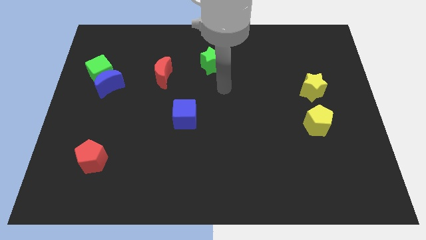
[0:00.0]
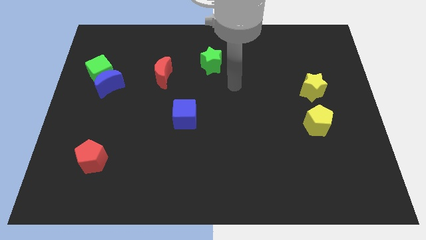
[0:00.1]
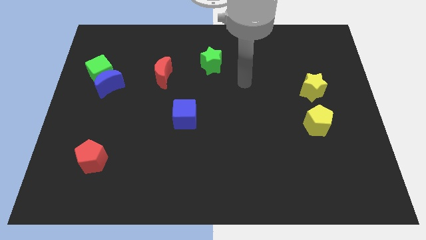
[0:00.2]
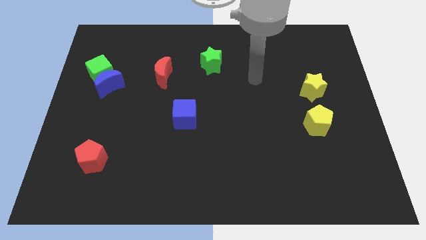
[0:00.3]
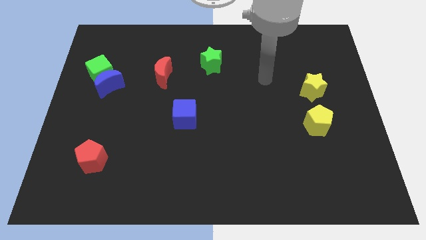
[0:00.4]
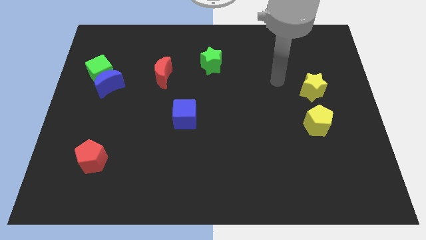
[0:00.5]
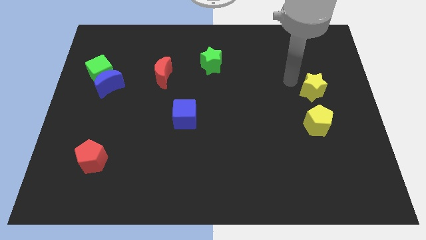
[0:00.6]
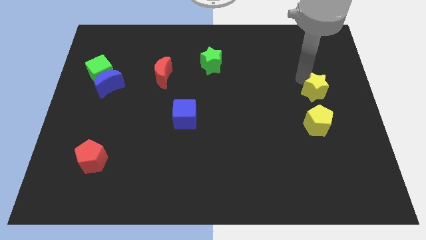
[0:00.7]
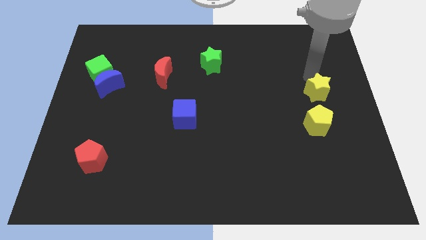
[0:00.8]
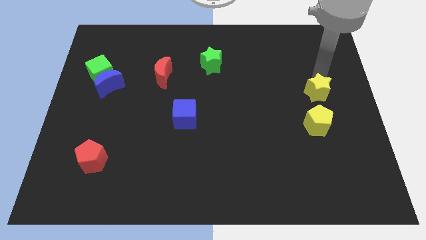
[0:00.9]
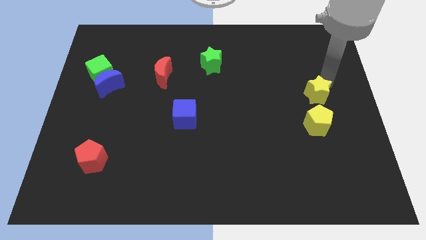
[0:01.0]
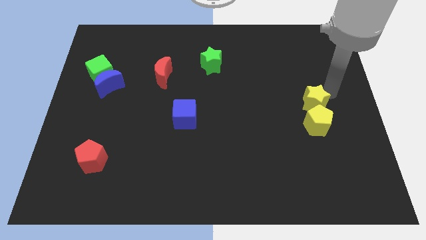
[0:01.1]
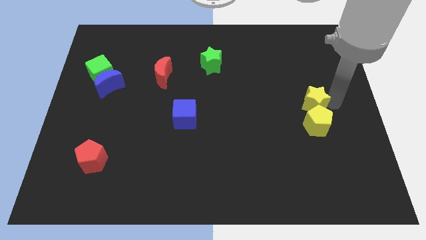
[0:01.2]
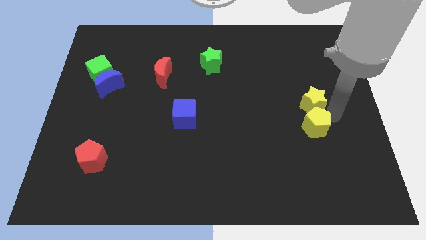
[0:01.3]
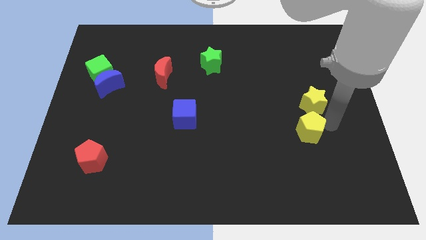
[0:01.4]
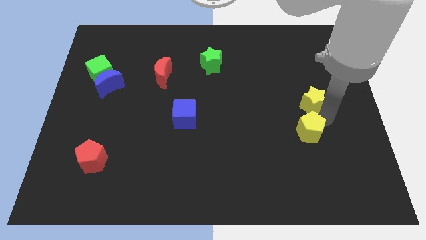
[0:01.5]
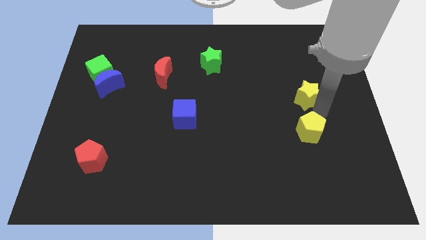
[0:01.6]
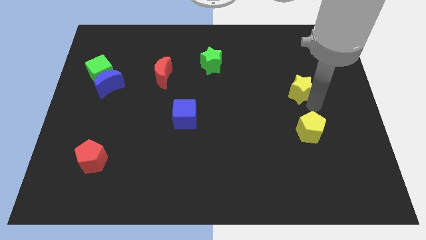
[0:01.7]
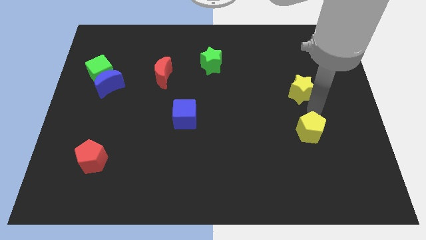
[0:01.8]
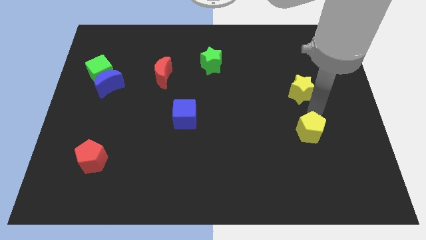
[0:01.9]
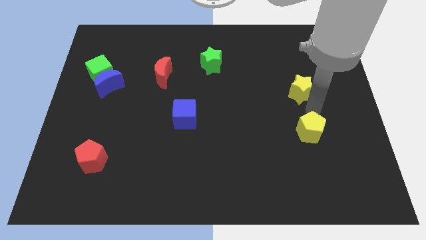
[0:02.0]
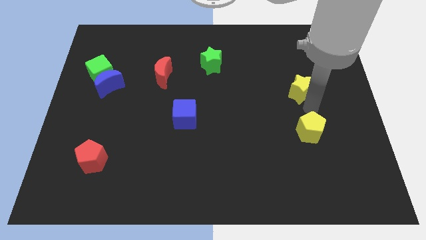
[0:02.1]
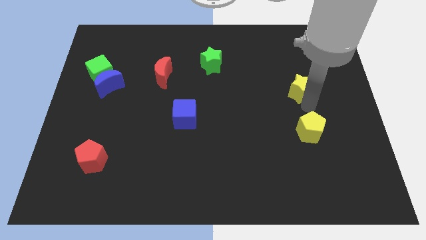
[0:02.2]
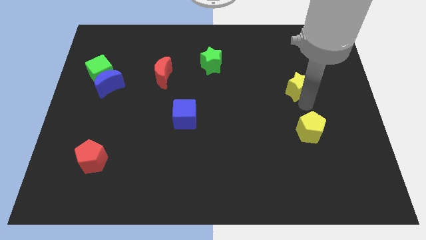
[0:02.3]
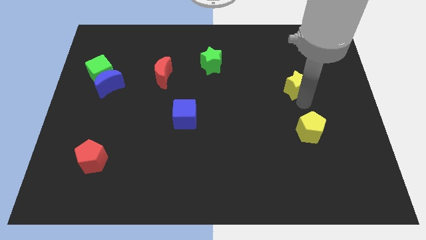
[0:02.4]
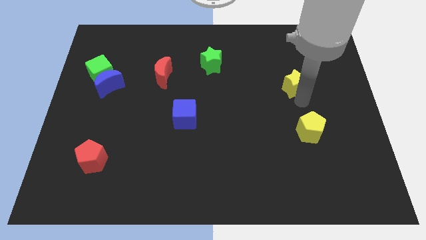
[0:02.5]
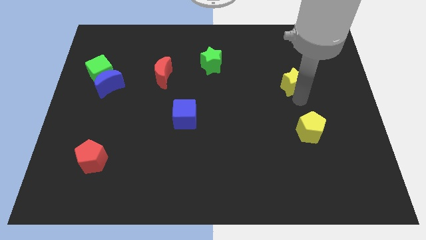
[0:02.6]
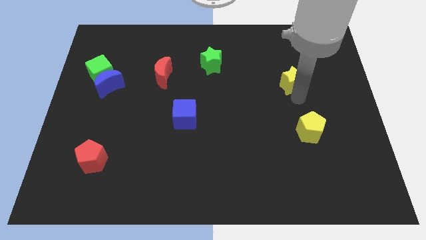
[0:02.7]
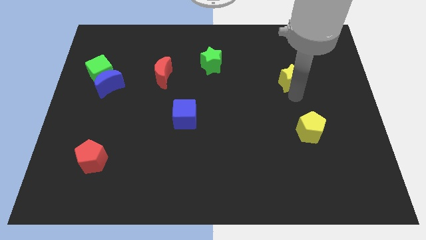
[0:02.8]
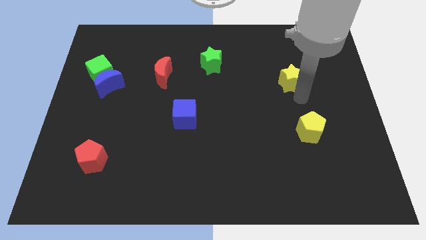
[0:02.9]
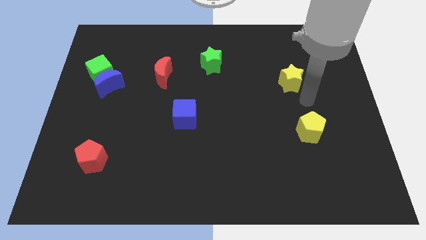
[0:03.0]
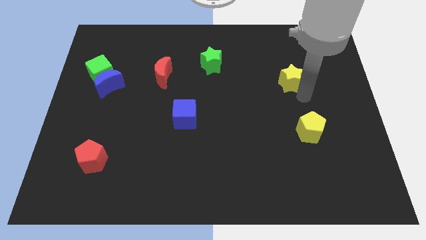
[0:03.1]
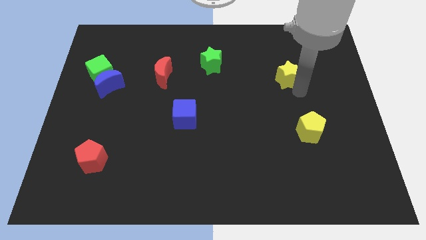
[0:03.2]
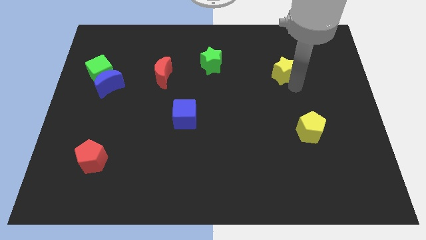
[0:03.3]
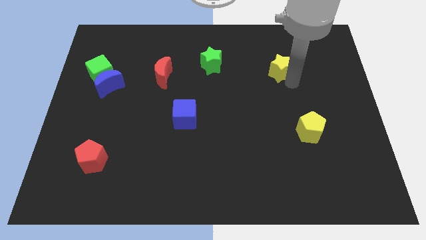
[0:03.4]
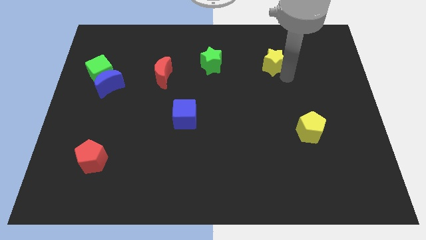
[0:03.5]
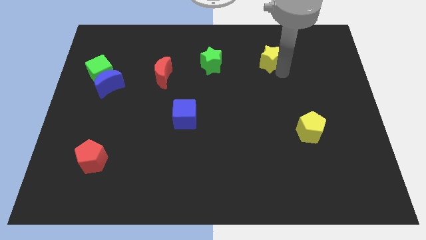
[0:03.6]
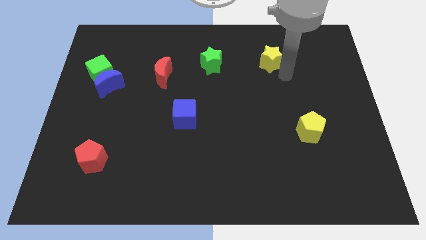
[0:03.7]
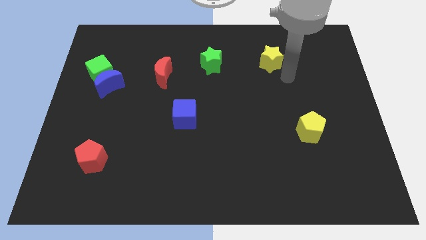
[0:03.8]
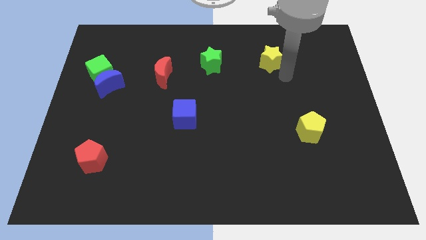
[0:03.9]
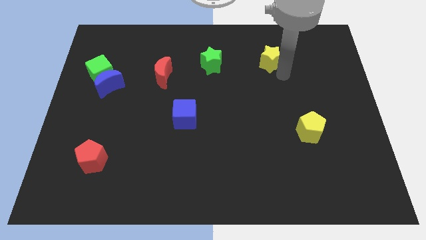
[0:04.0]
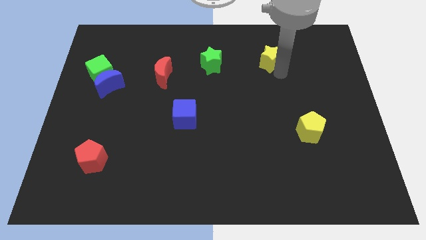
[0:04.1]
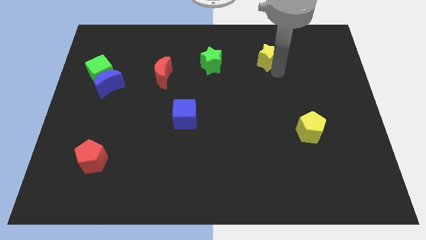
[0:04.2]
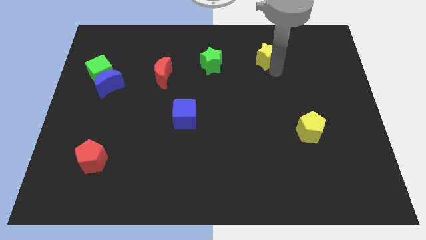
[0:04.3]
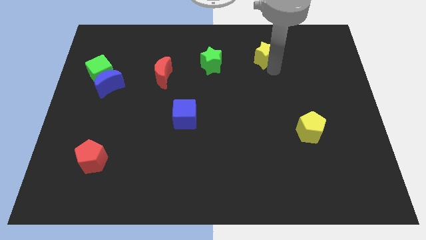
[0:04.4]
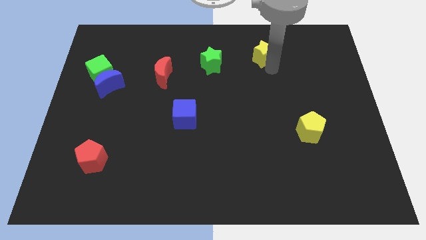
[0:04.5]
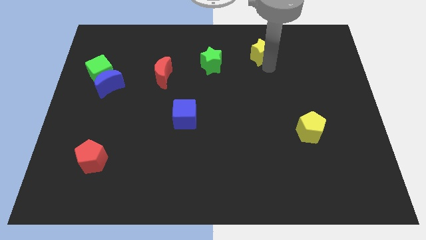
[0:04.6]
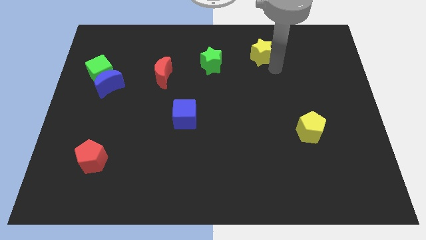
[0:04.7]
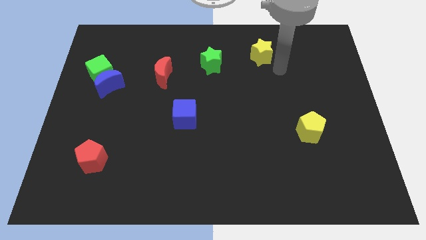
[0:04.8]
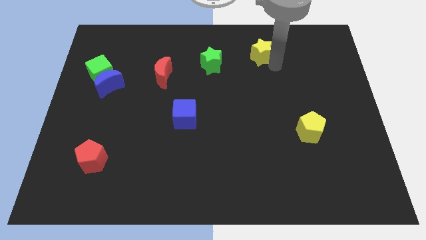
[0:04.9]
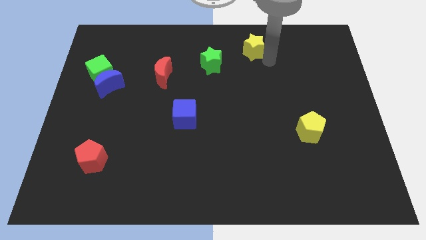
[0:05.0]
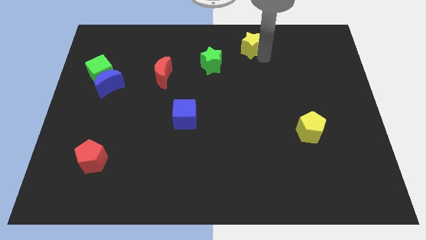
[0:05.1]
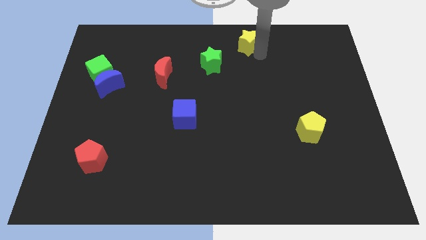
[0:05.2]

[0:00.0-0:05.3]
push the yellow star to the towards your base

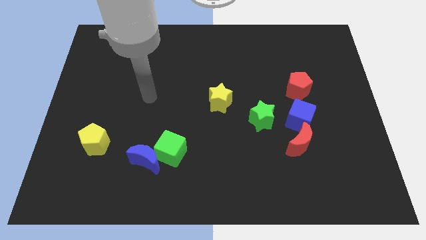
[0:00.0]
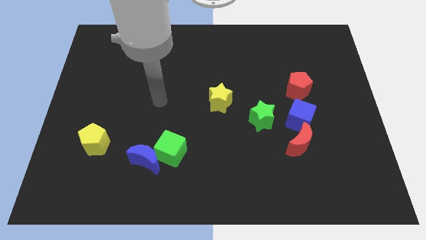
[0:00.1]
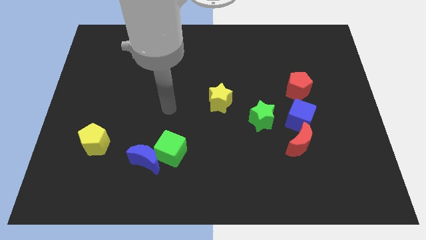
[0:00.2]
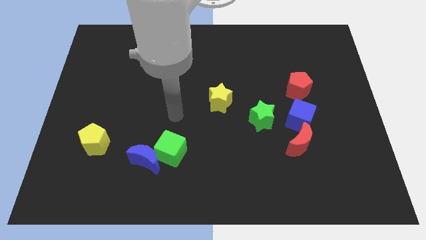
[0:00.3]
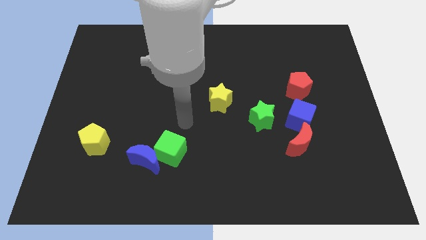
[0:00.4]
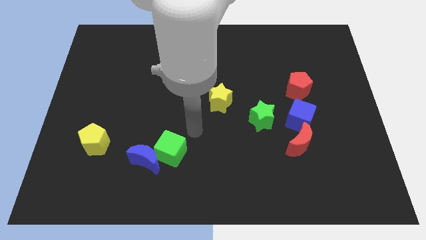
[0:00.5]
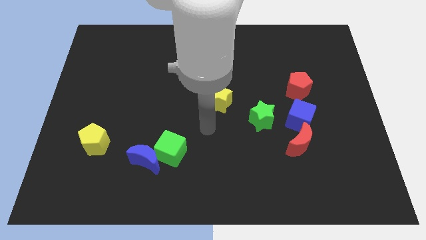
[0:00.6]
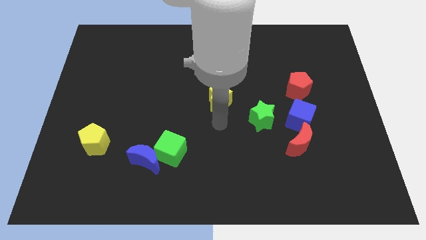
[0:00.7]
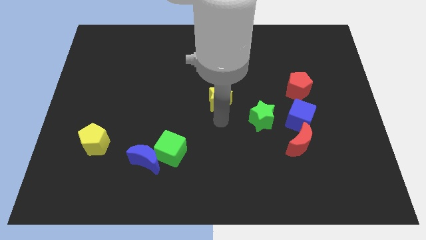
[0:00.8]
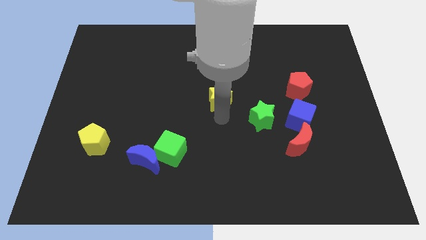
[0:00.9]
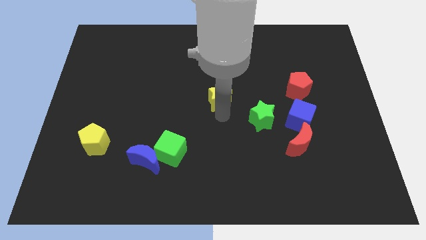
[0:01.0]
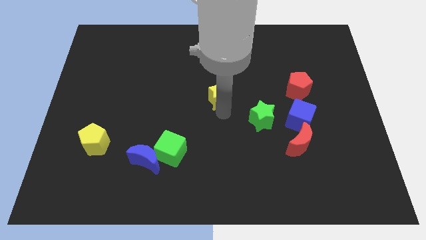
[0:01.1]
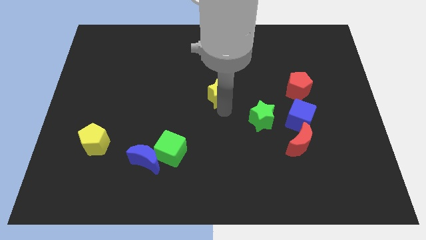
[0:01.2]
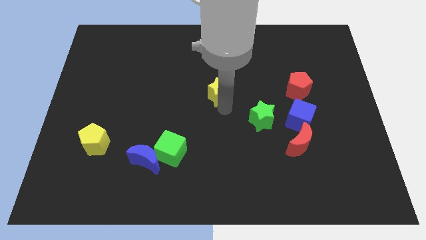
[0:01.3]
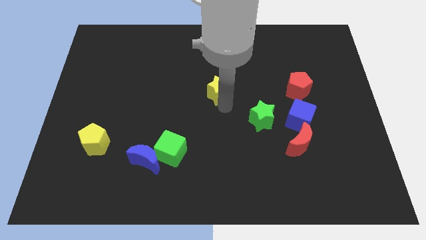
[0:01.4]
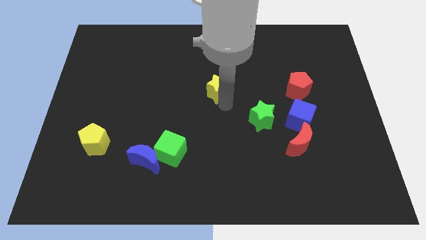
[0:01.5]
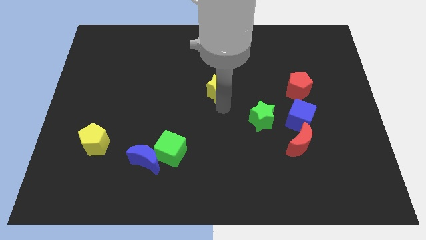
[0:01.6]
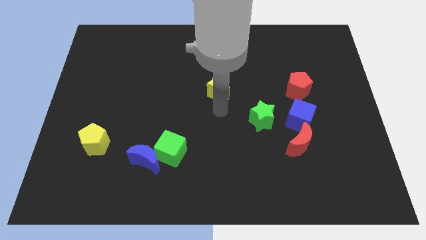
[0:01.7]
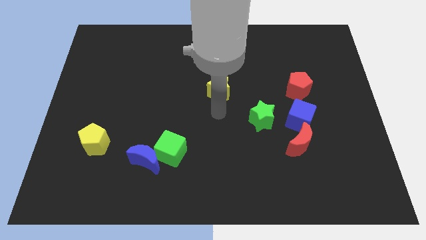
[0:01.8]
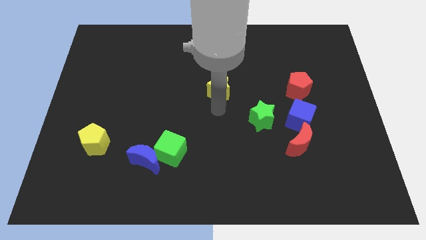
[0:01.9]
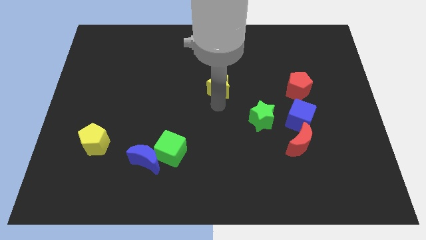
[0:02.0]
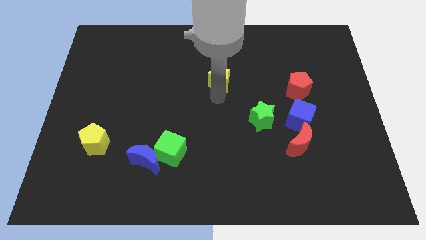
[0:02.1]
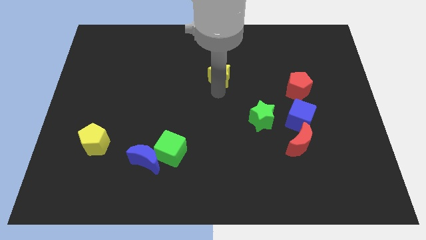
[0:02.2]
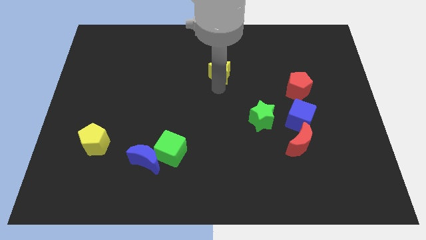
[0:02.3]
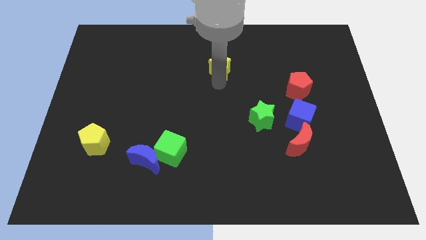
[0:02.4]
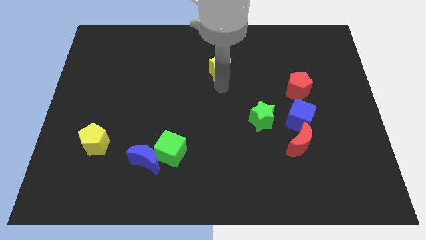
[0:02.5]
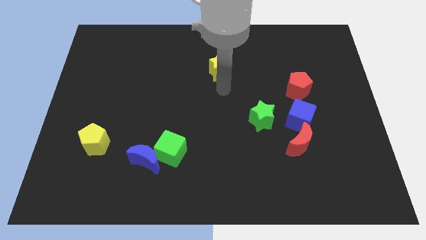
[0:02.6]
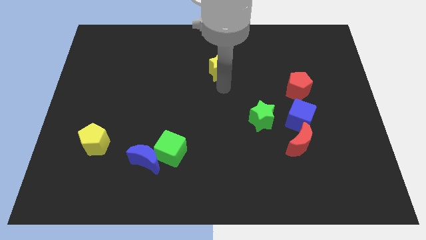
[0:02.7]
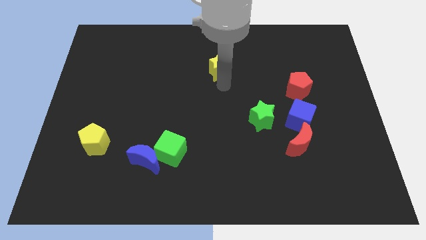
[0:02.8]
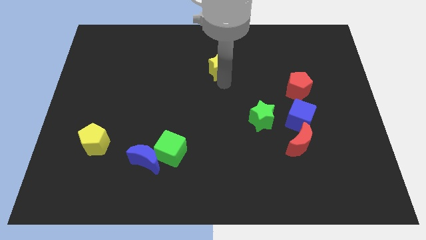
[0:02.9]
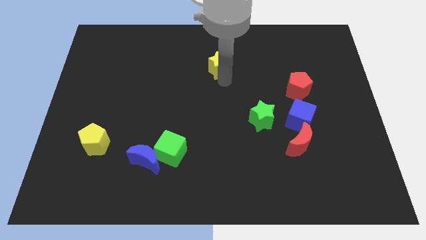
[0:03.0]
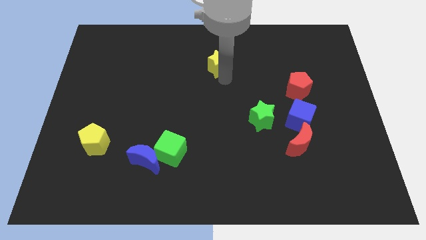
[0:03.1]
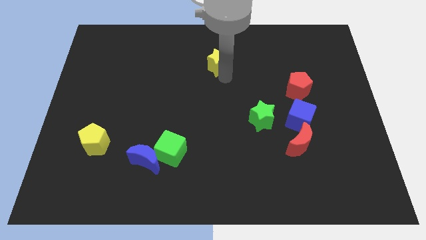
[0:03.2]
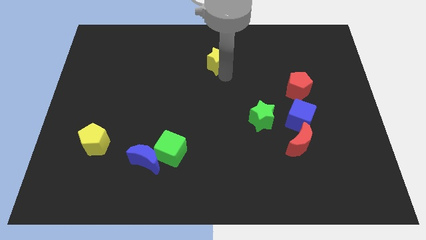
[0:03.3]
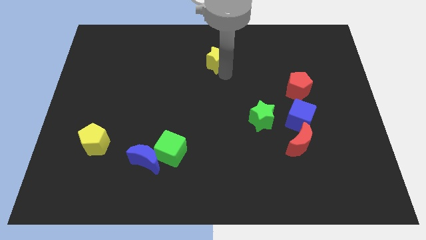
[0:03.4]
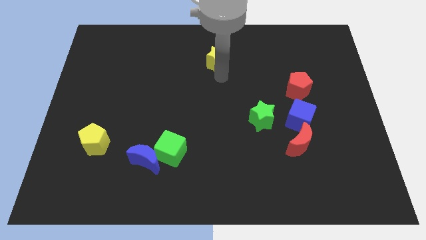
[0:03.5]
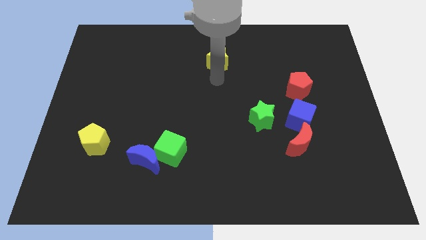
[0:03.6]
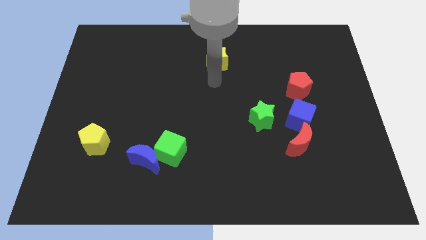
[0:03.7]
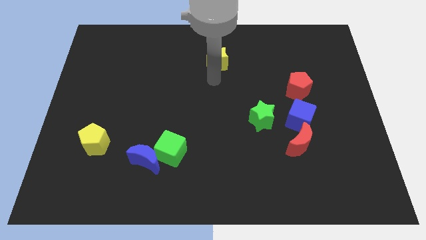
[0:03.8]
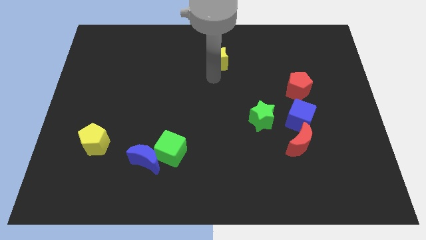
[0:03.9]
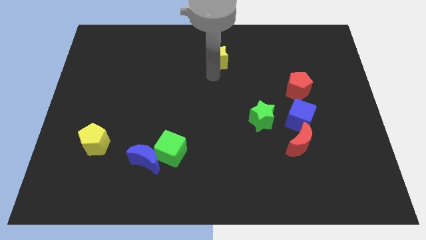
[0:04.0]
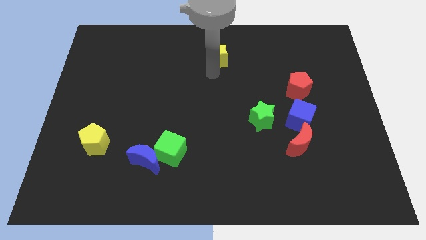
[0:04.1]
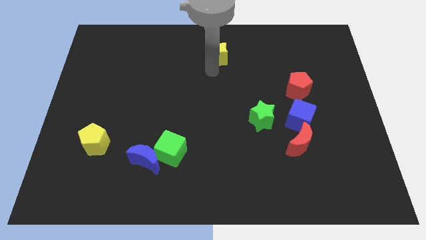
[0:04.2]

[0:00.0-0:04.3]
move the yellow star to the towards your base
